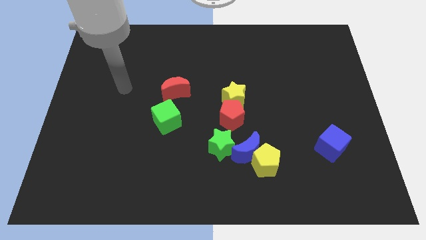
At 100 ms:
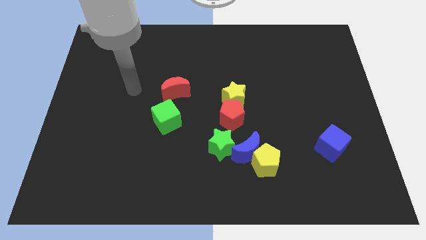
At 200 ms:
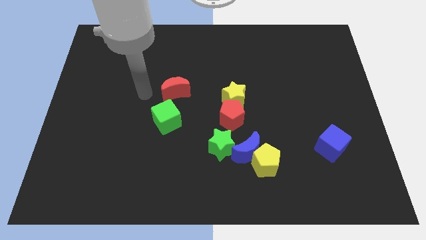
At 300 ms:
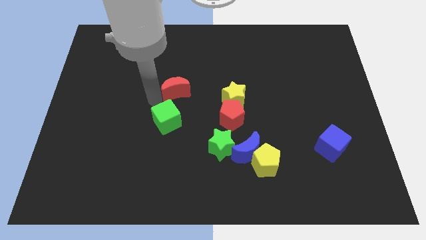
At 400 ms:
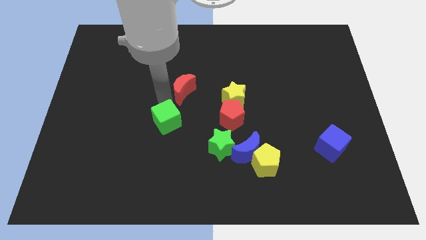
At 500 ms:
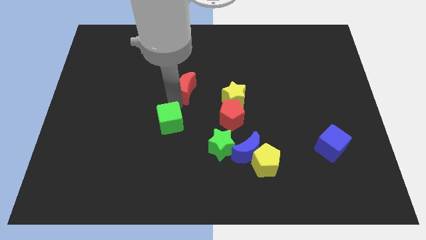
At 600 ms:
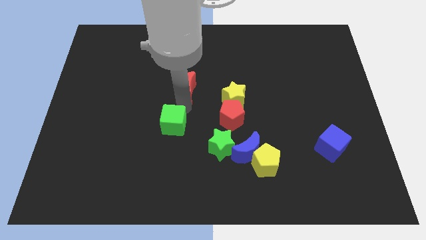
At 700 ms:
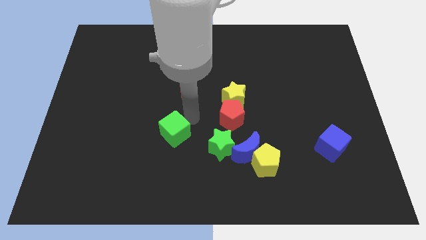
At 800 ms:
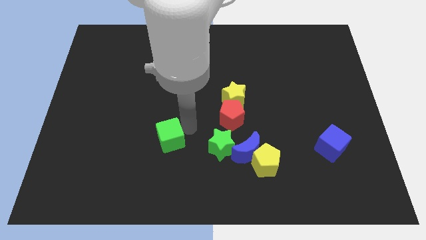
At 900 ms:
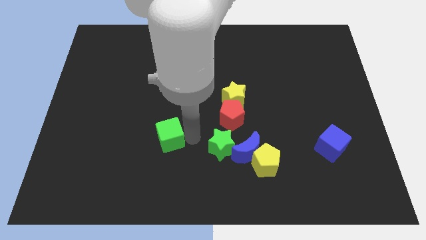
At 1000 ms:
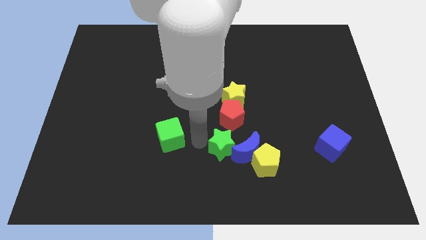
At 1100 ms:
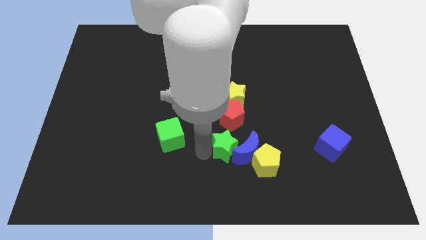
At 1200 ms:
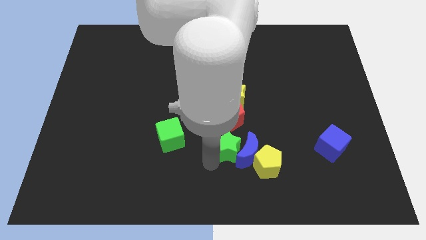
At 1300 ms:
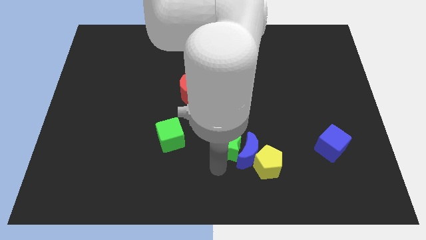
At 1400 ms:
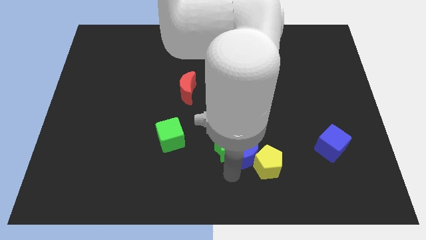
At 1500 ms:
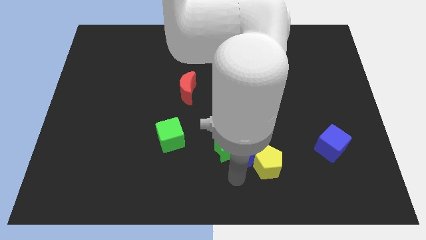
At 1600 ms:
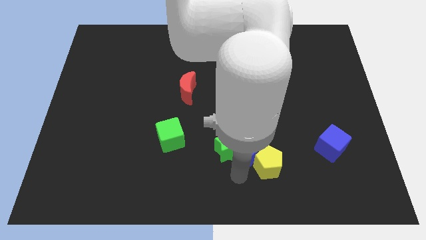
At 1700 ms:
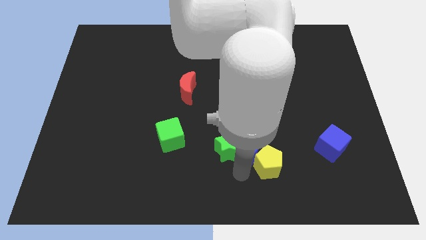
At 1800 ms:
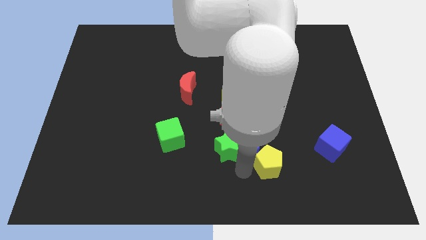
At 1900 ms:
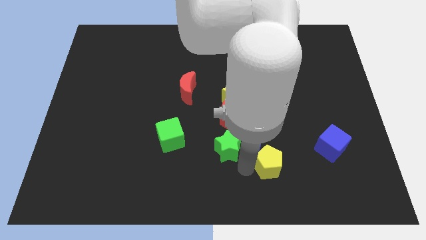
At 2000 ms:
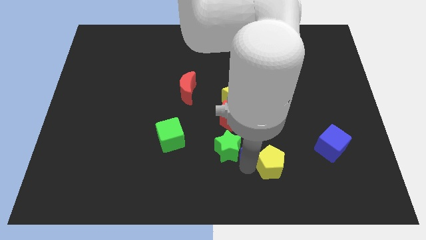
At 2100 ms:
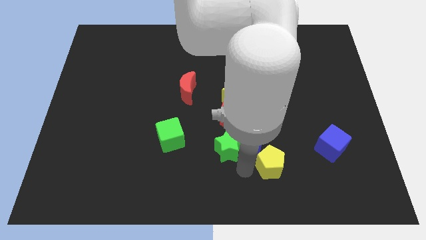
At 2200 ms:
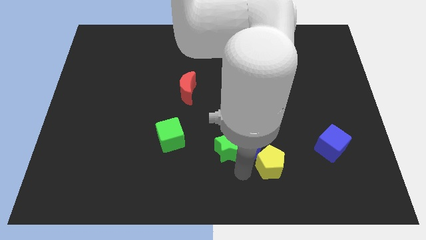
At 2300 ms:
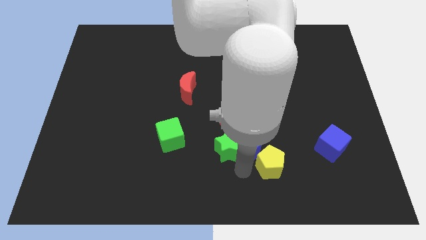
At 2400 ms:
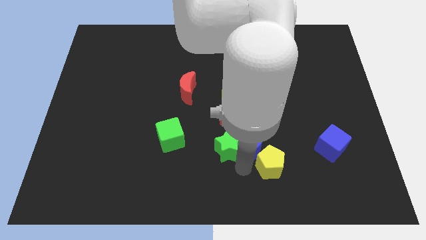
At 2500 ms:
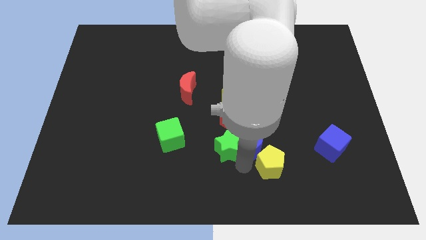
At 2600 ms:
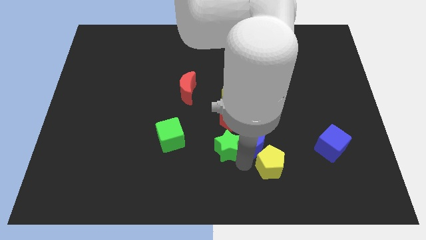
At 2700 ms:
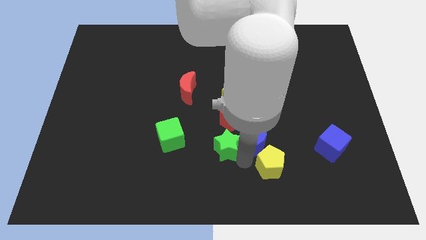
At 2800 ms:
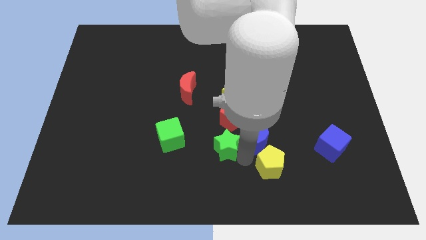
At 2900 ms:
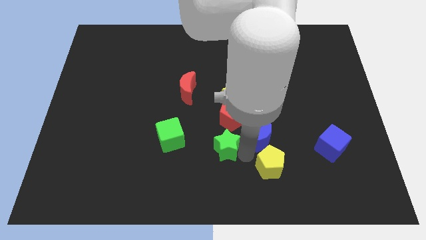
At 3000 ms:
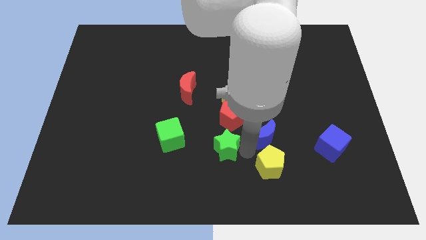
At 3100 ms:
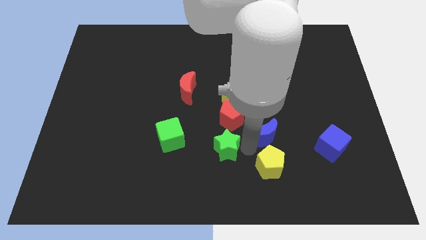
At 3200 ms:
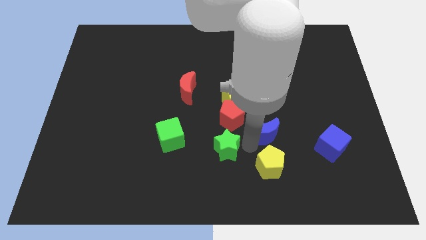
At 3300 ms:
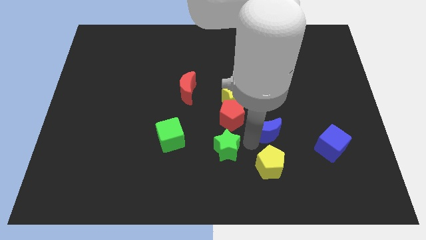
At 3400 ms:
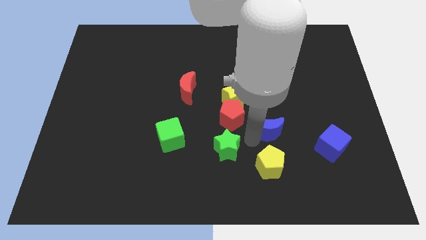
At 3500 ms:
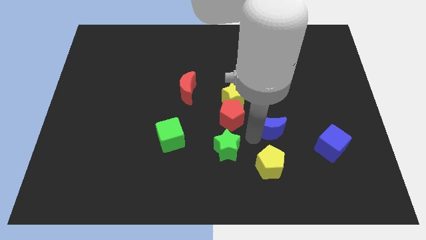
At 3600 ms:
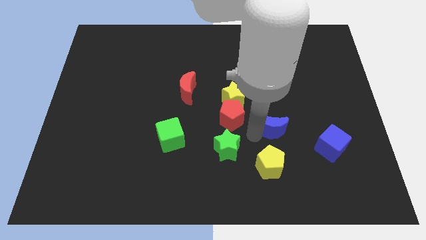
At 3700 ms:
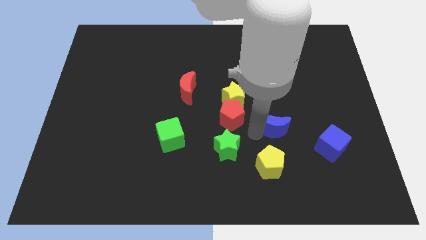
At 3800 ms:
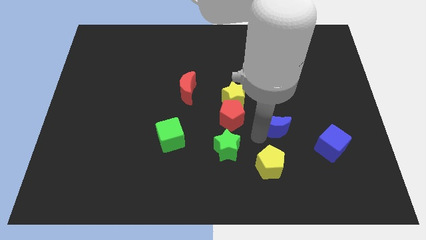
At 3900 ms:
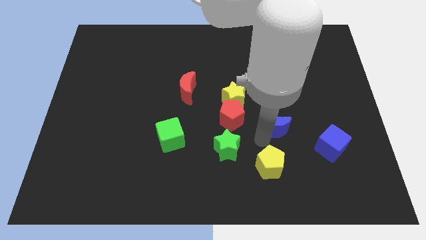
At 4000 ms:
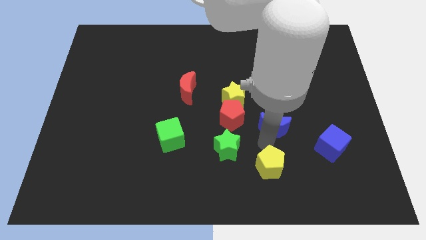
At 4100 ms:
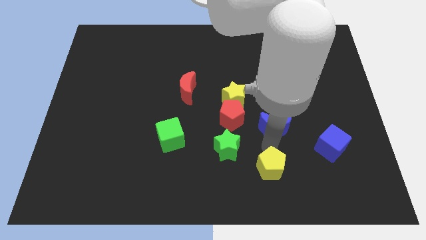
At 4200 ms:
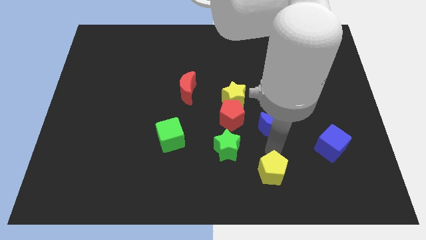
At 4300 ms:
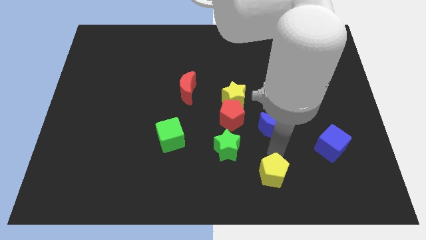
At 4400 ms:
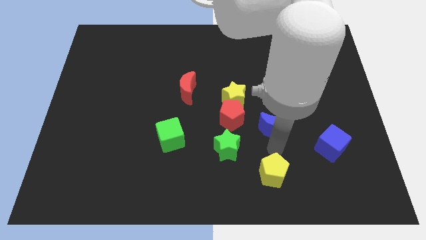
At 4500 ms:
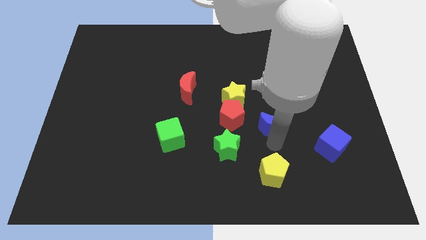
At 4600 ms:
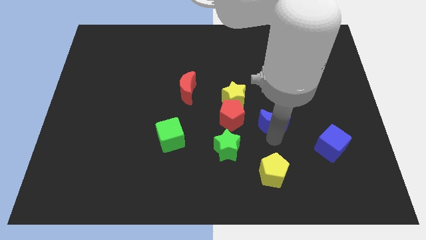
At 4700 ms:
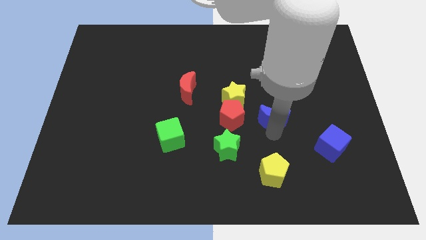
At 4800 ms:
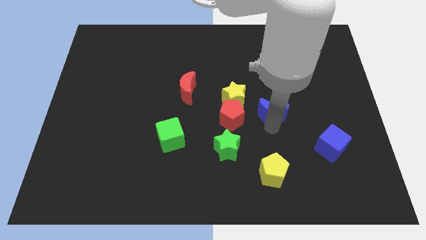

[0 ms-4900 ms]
move the blue moon to the right of the yellow star

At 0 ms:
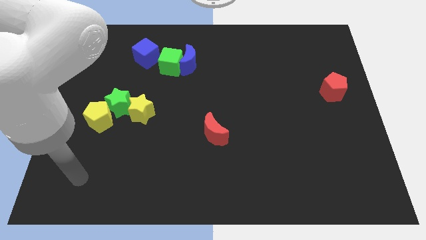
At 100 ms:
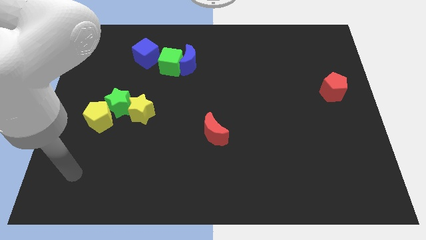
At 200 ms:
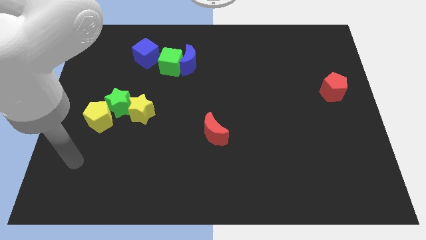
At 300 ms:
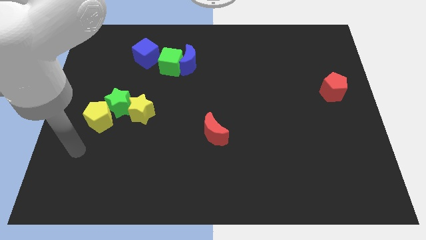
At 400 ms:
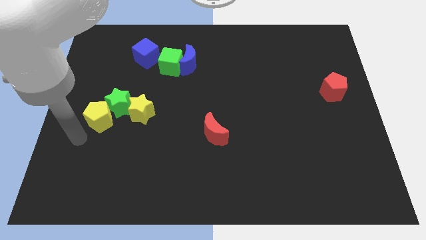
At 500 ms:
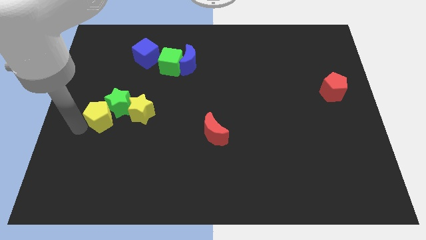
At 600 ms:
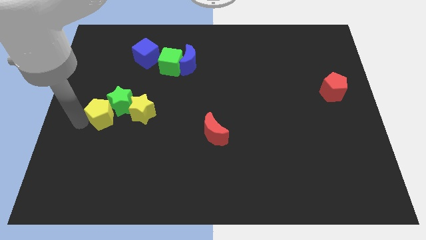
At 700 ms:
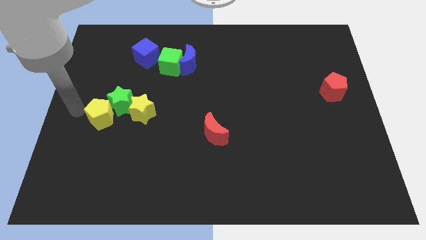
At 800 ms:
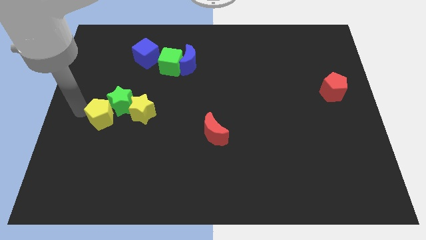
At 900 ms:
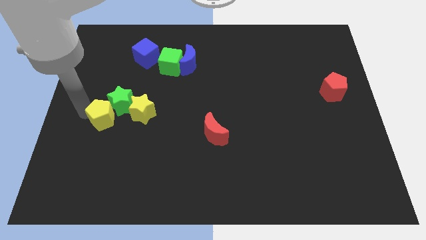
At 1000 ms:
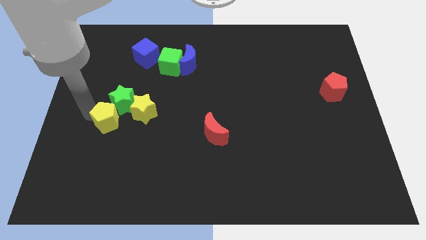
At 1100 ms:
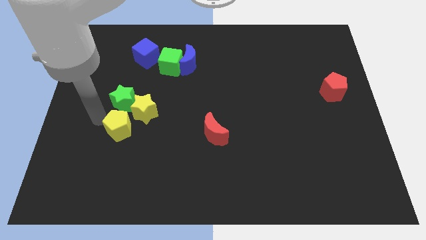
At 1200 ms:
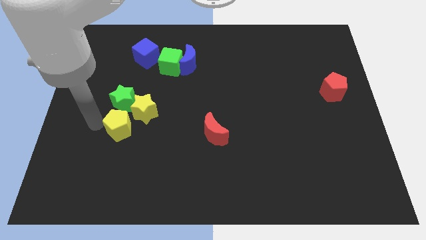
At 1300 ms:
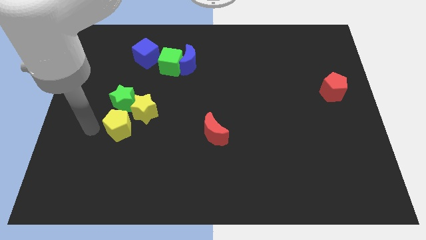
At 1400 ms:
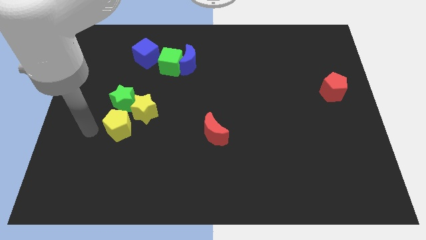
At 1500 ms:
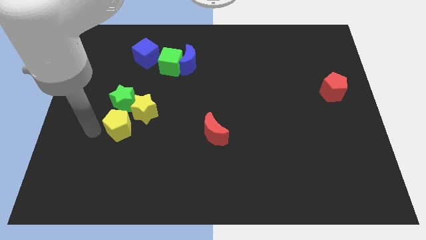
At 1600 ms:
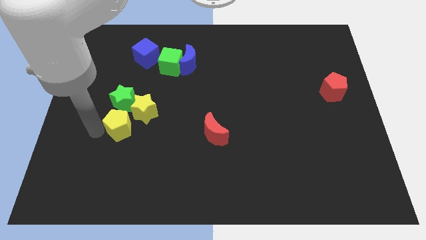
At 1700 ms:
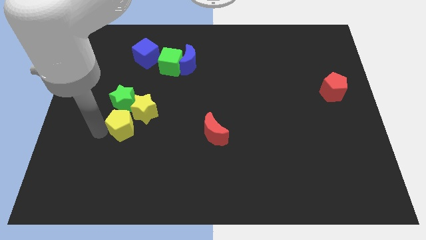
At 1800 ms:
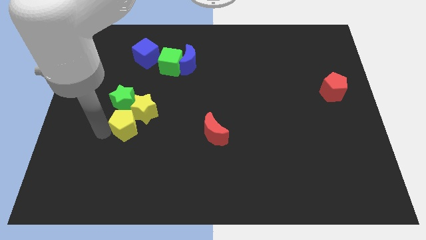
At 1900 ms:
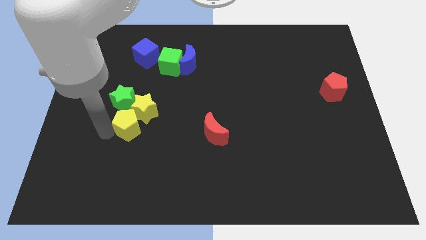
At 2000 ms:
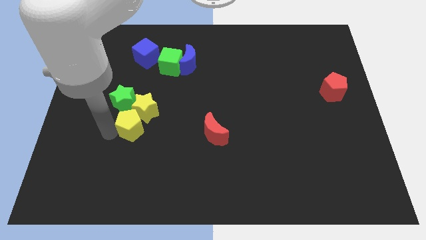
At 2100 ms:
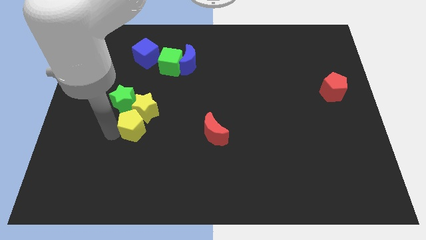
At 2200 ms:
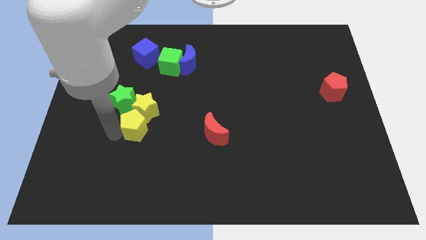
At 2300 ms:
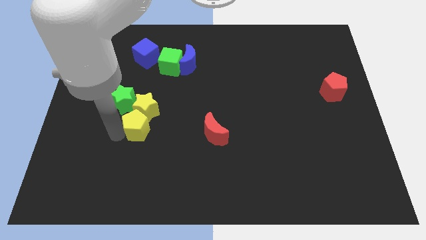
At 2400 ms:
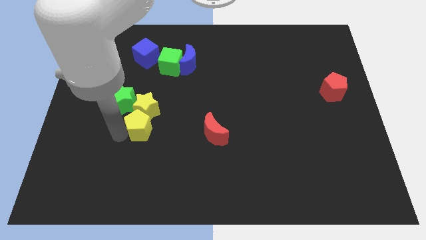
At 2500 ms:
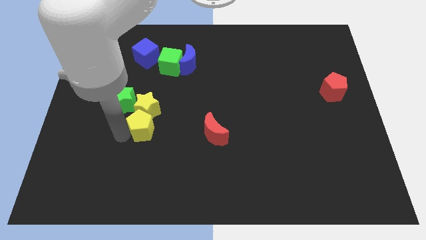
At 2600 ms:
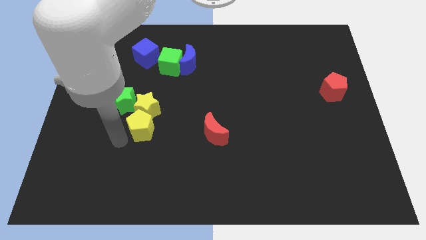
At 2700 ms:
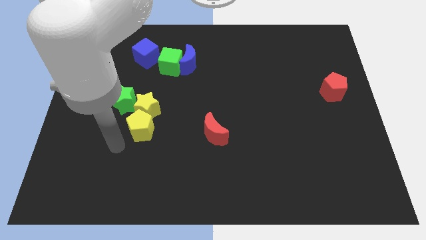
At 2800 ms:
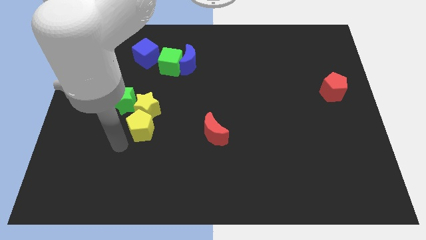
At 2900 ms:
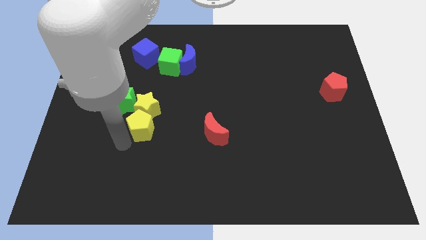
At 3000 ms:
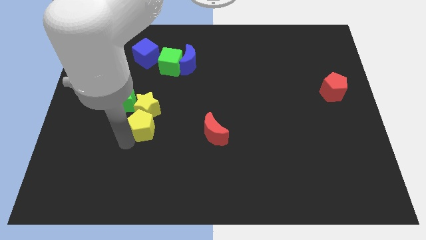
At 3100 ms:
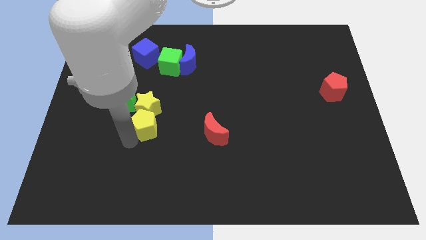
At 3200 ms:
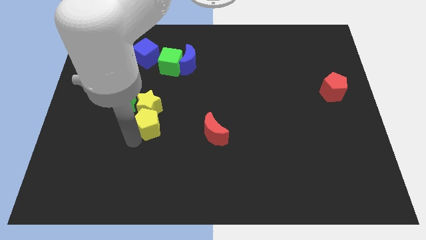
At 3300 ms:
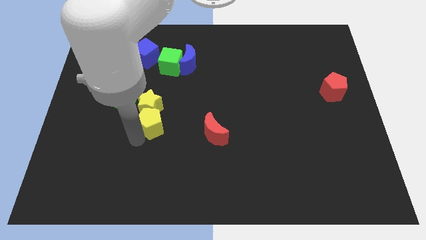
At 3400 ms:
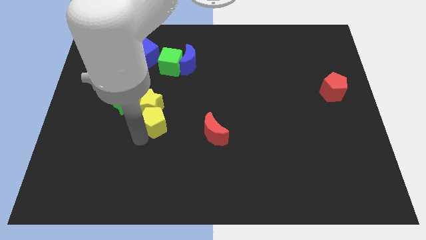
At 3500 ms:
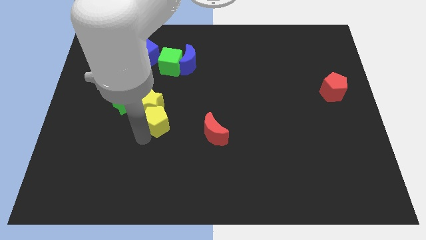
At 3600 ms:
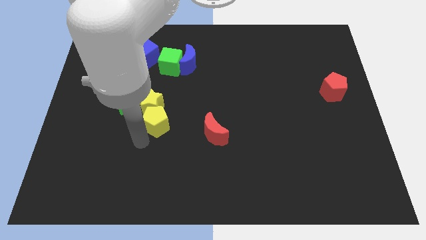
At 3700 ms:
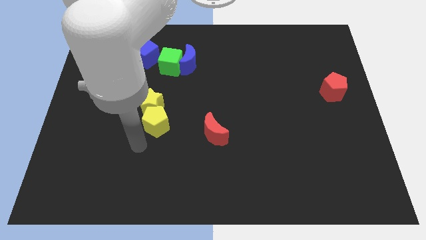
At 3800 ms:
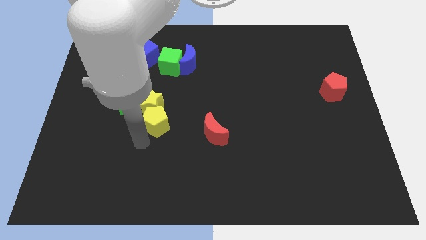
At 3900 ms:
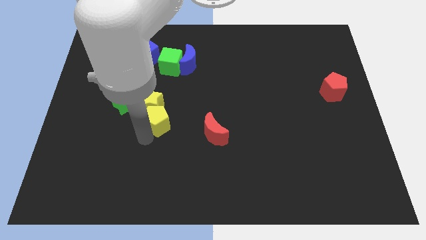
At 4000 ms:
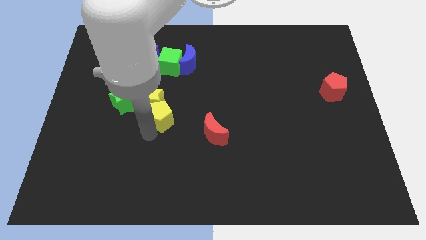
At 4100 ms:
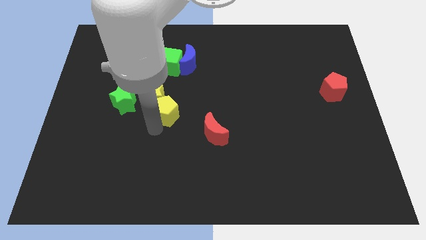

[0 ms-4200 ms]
push the yellow pentagon to the bottom of the green cube
